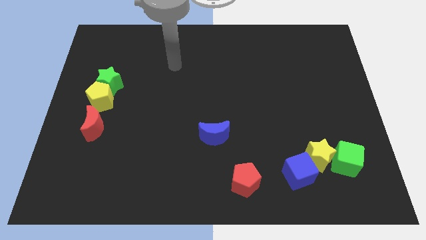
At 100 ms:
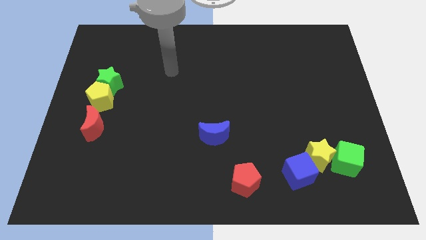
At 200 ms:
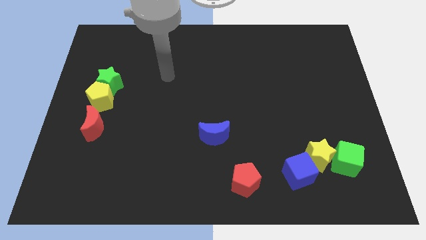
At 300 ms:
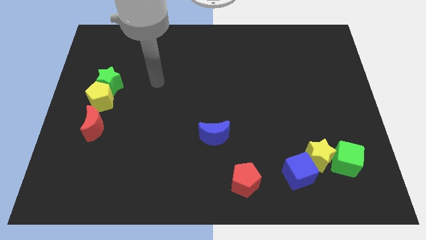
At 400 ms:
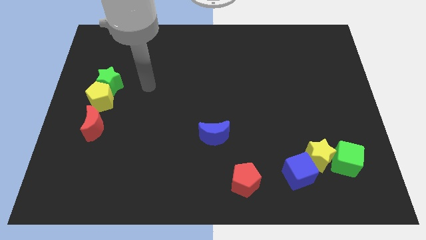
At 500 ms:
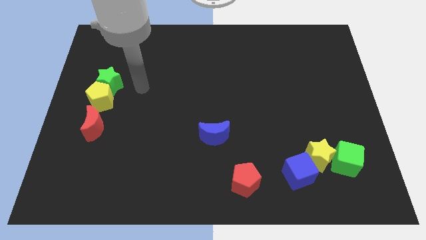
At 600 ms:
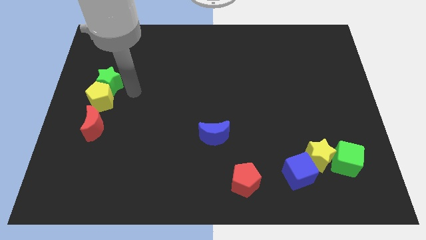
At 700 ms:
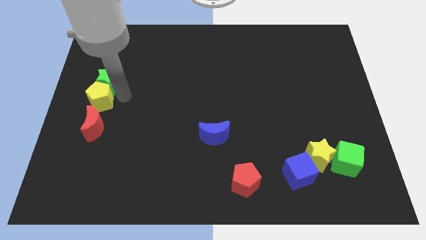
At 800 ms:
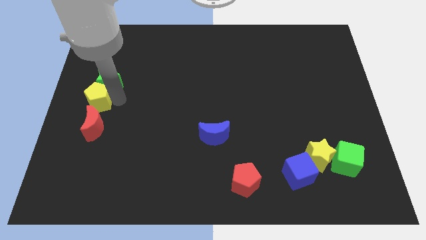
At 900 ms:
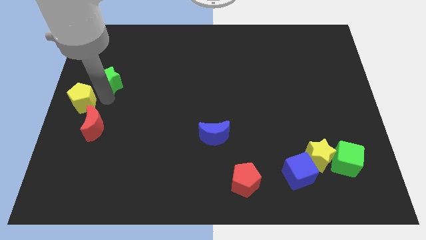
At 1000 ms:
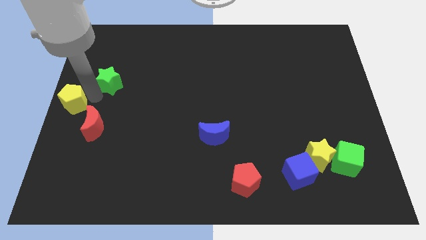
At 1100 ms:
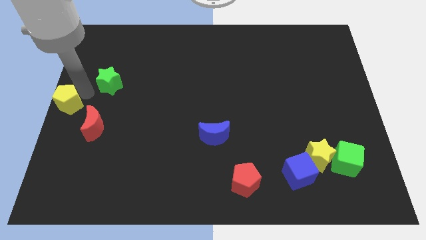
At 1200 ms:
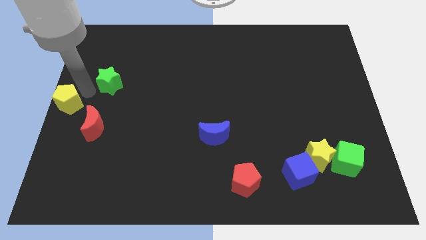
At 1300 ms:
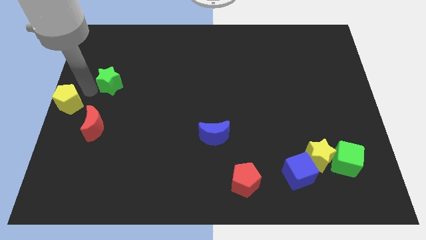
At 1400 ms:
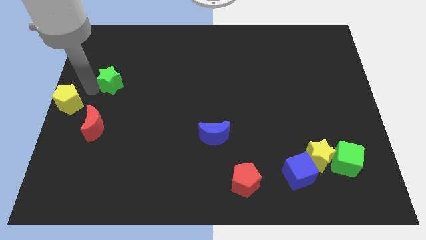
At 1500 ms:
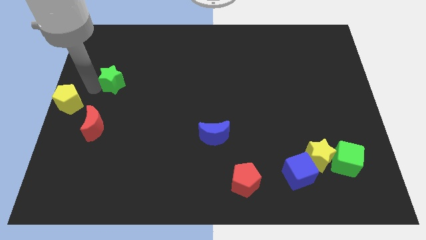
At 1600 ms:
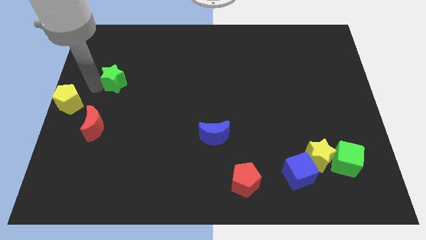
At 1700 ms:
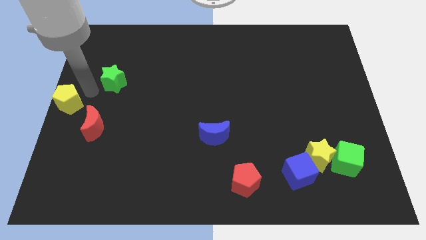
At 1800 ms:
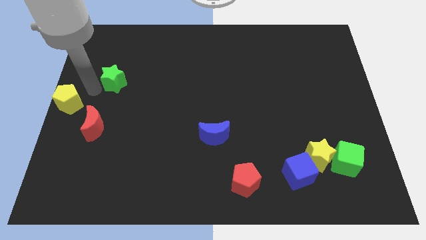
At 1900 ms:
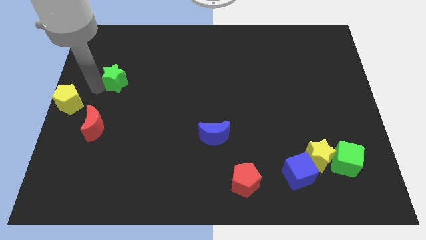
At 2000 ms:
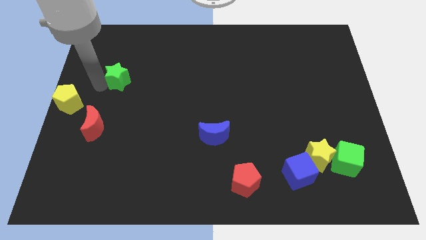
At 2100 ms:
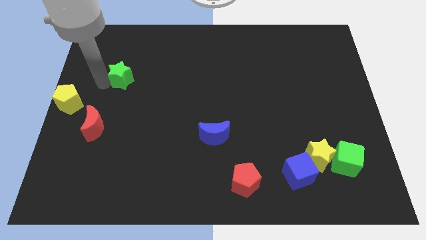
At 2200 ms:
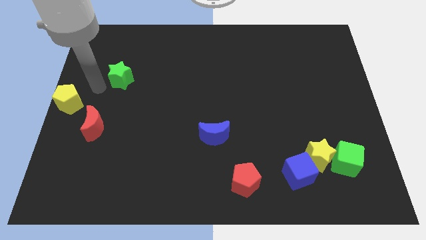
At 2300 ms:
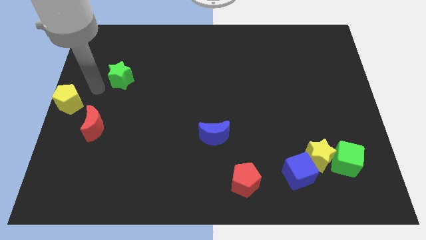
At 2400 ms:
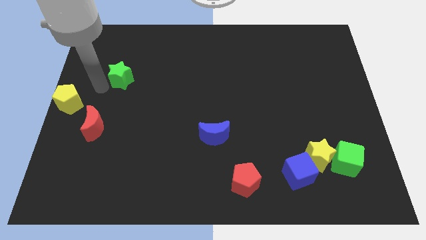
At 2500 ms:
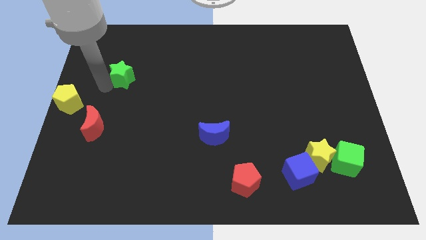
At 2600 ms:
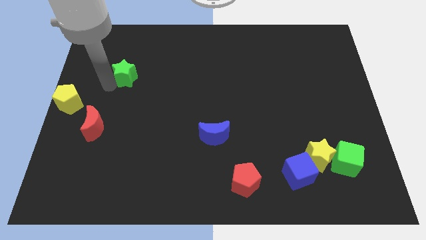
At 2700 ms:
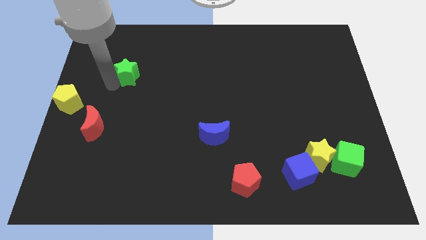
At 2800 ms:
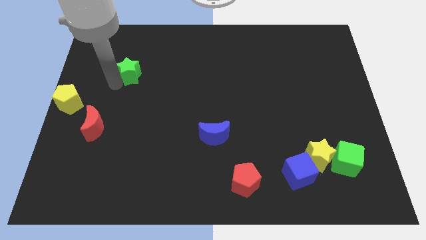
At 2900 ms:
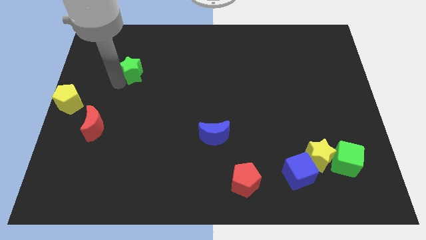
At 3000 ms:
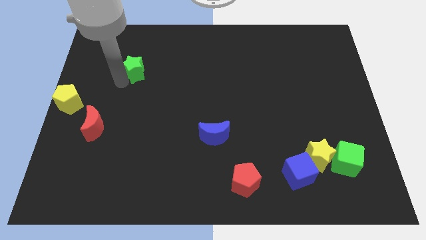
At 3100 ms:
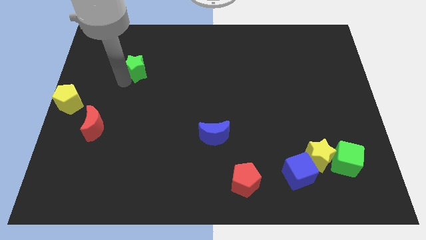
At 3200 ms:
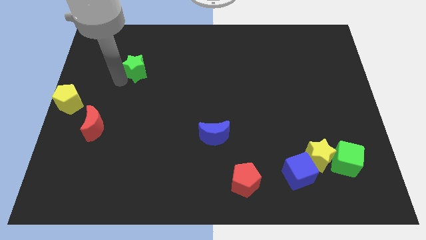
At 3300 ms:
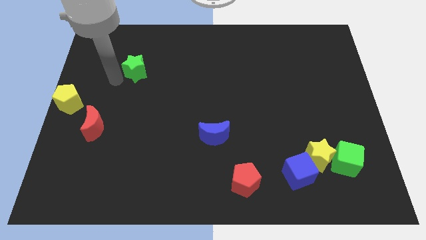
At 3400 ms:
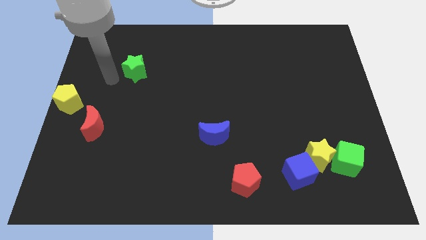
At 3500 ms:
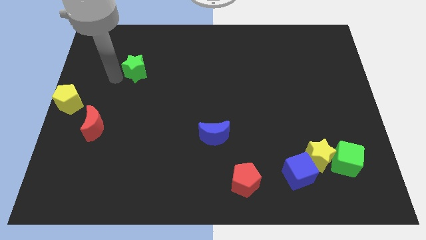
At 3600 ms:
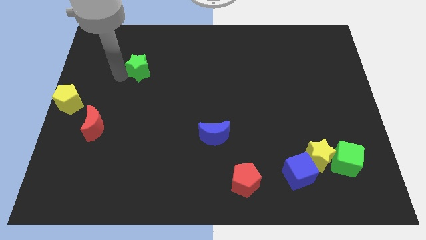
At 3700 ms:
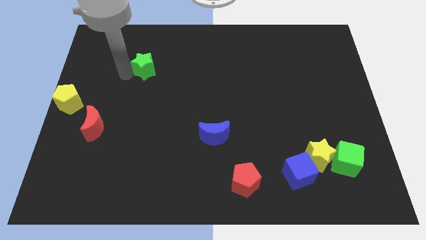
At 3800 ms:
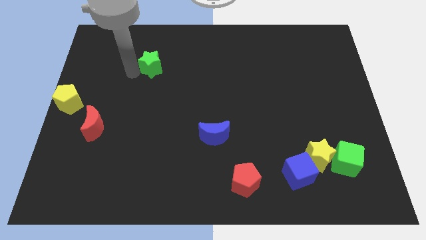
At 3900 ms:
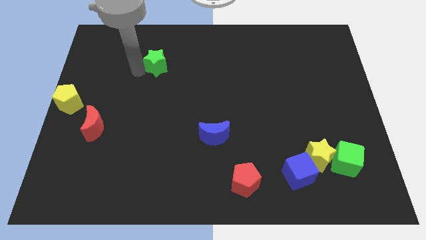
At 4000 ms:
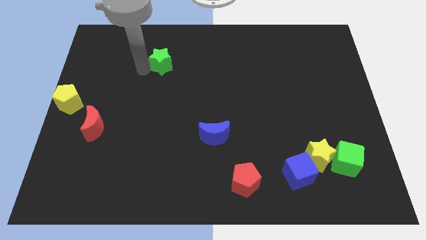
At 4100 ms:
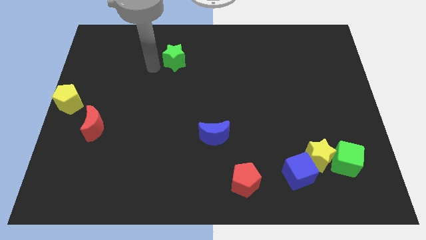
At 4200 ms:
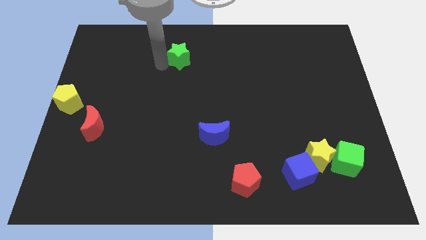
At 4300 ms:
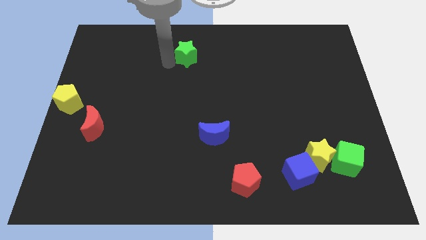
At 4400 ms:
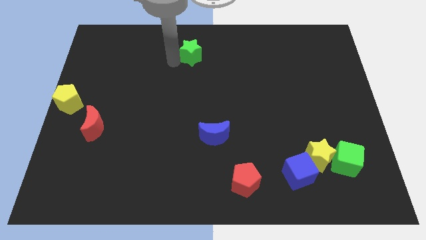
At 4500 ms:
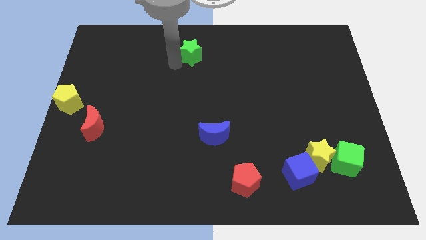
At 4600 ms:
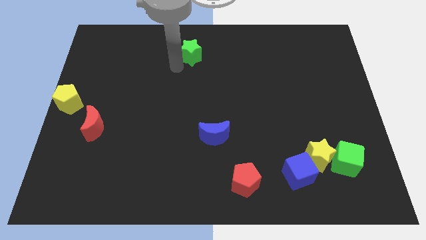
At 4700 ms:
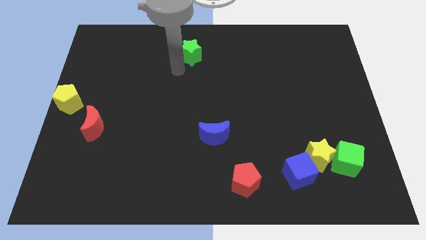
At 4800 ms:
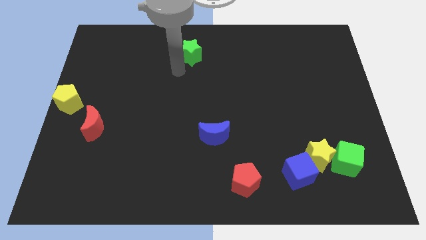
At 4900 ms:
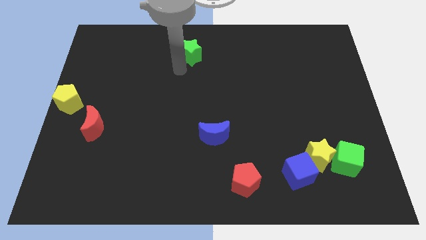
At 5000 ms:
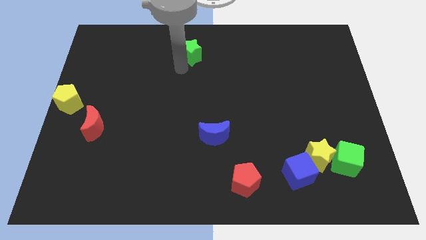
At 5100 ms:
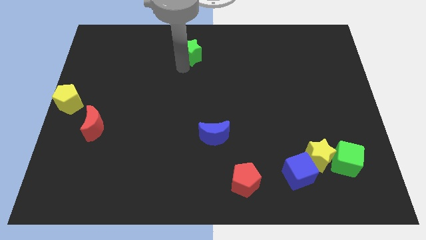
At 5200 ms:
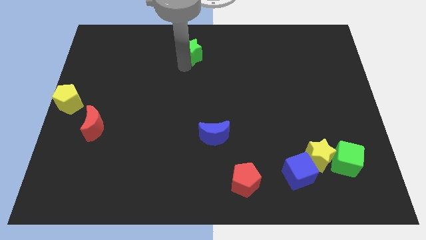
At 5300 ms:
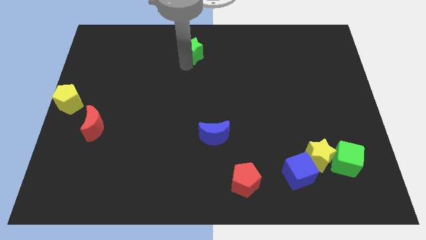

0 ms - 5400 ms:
slide the green star to the top
